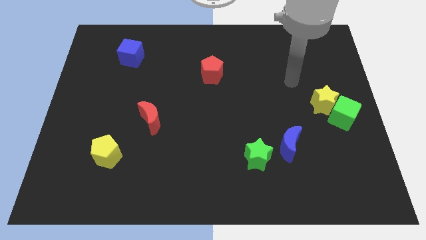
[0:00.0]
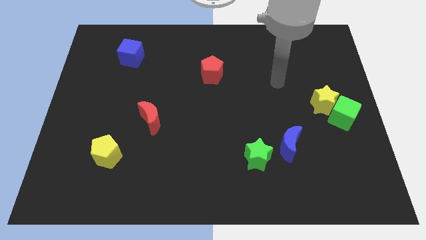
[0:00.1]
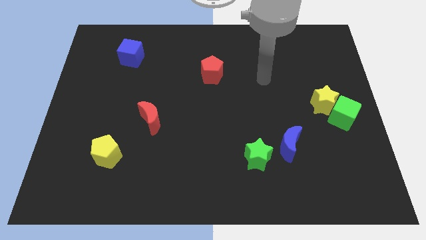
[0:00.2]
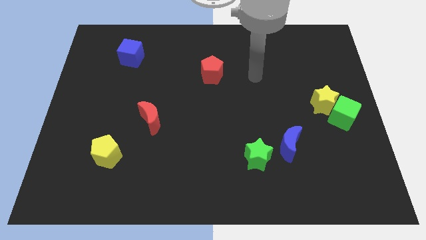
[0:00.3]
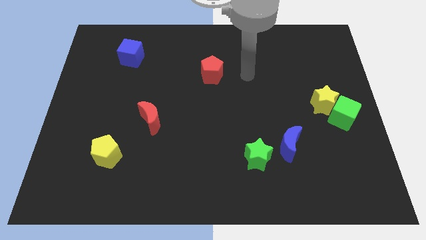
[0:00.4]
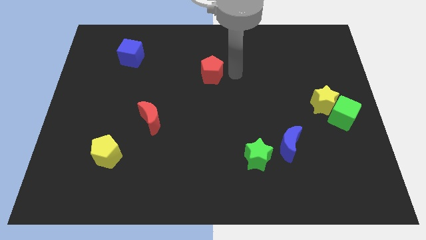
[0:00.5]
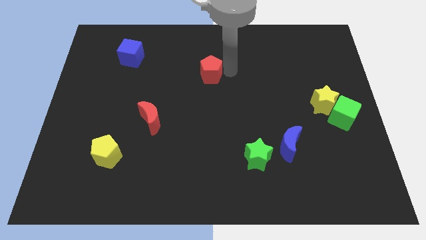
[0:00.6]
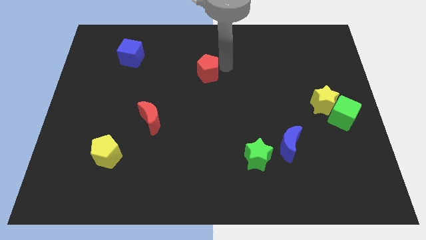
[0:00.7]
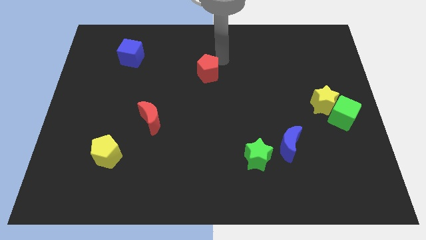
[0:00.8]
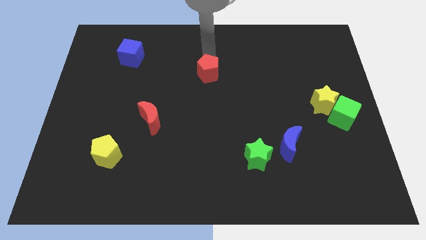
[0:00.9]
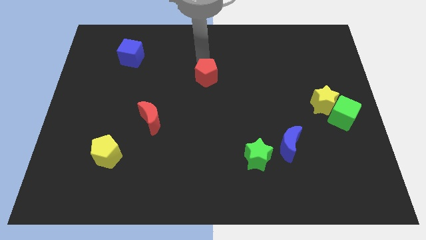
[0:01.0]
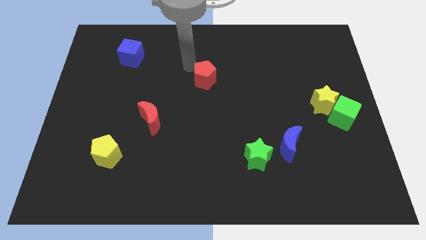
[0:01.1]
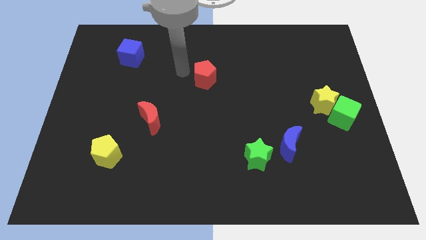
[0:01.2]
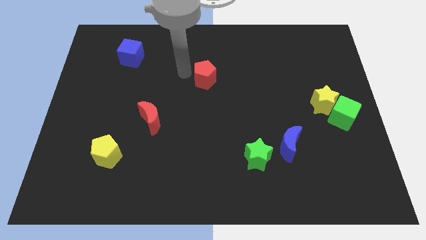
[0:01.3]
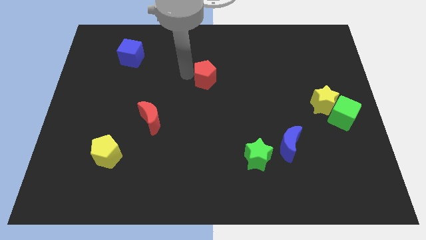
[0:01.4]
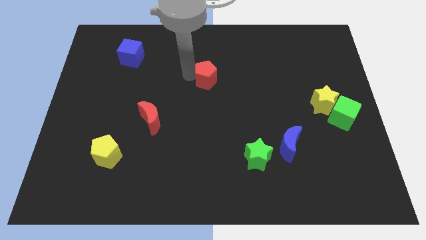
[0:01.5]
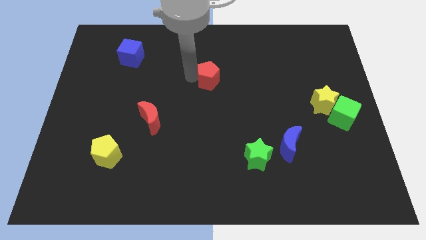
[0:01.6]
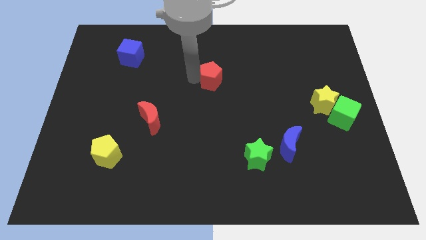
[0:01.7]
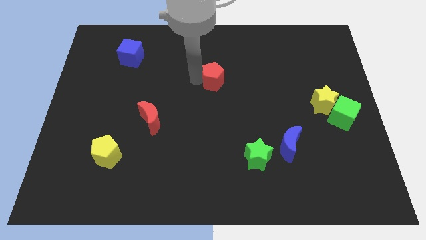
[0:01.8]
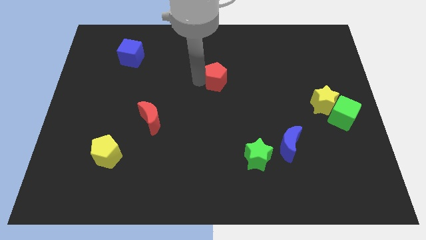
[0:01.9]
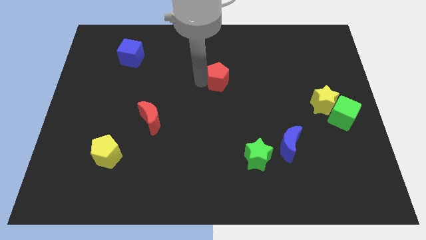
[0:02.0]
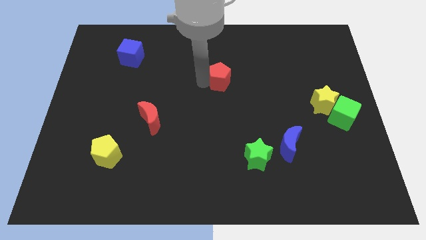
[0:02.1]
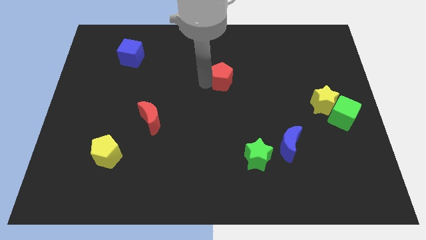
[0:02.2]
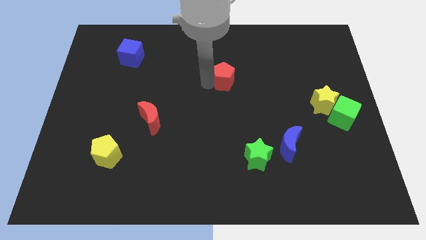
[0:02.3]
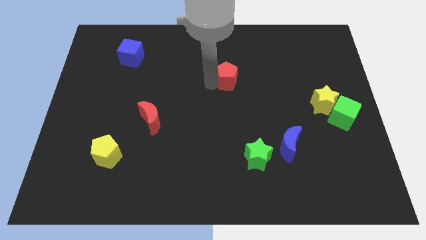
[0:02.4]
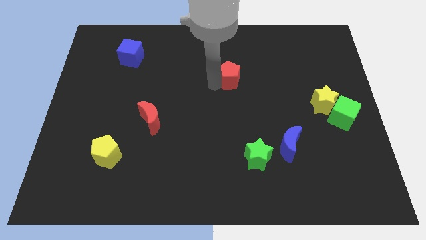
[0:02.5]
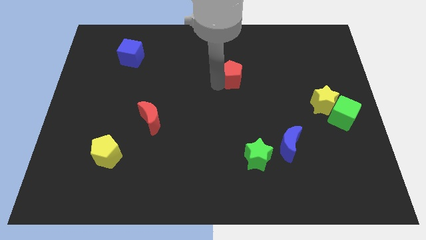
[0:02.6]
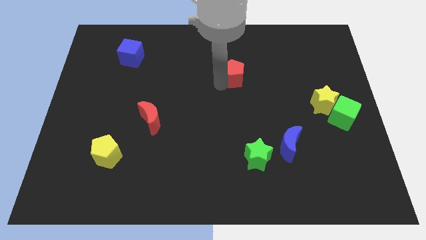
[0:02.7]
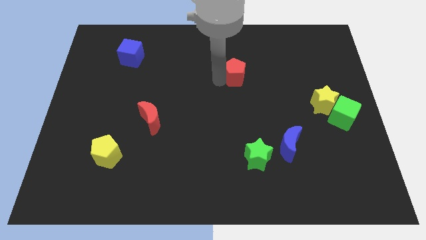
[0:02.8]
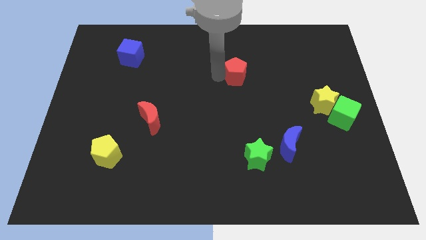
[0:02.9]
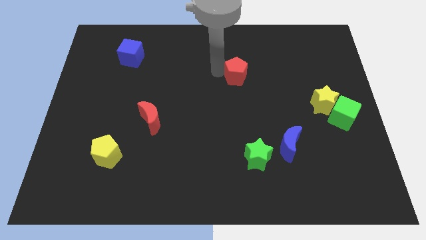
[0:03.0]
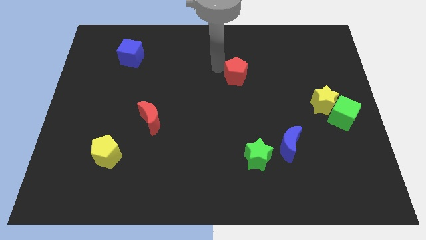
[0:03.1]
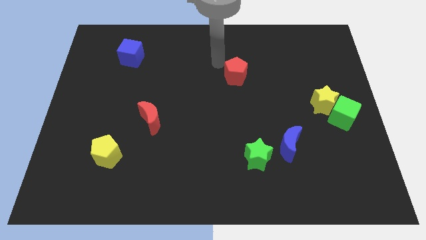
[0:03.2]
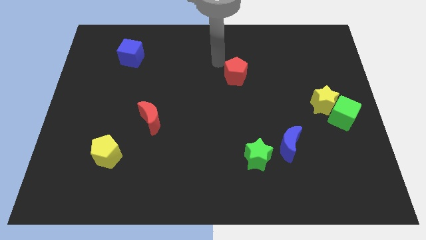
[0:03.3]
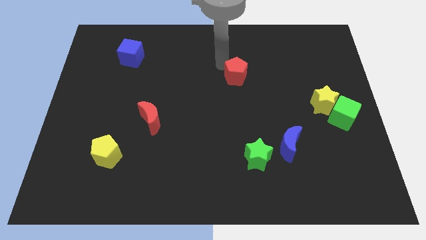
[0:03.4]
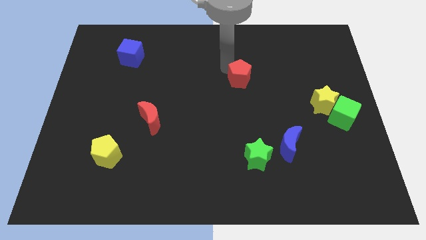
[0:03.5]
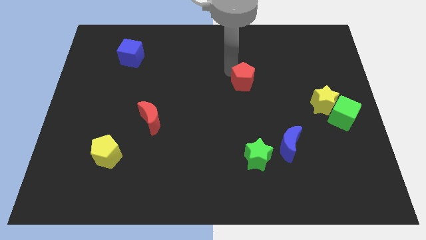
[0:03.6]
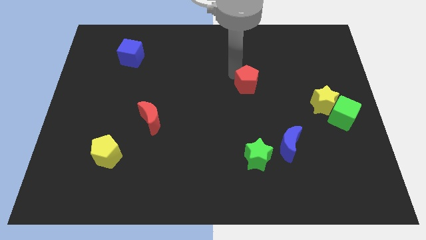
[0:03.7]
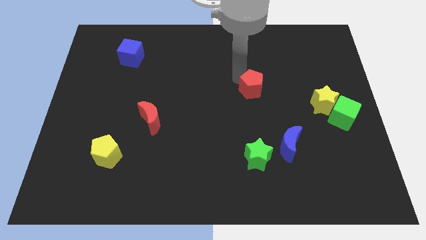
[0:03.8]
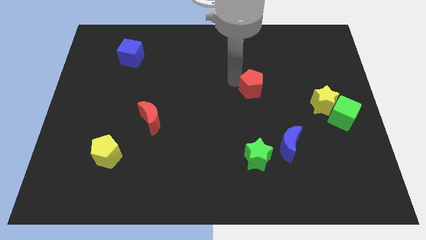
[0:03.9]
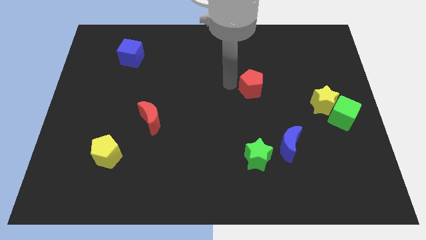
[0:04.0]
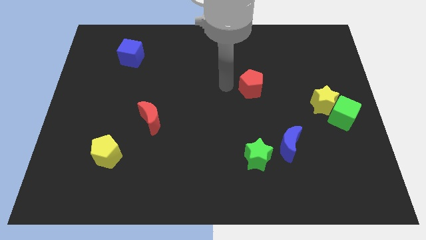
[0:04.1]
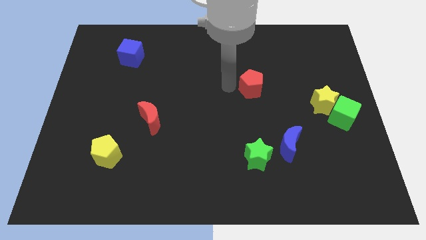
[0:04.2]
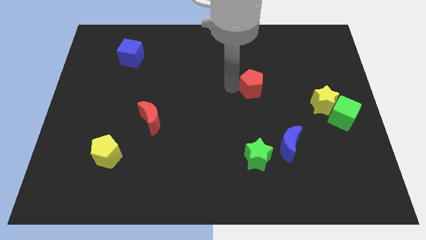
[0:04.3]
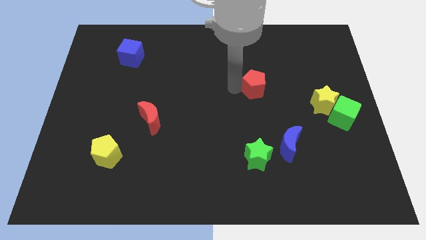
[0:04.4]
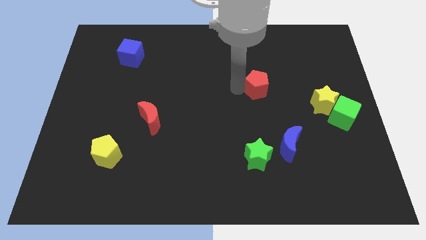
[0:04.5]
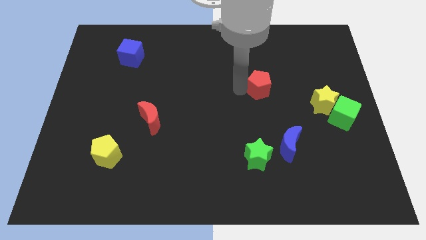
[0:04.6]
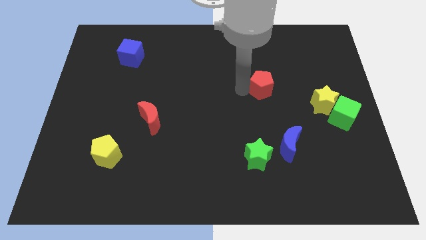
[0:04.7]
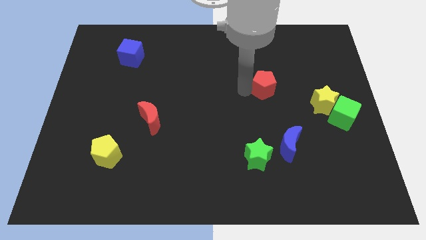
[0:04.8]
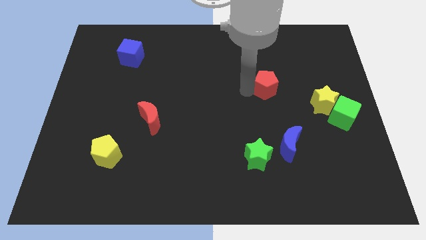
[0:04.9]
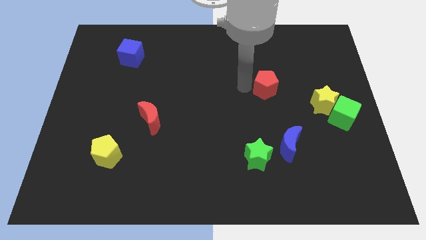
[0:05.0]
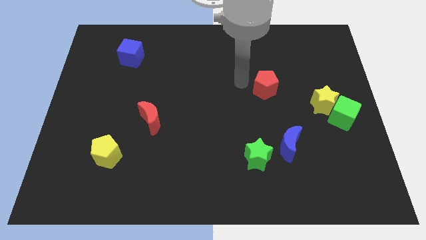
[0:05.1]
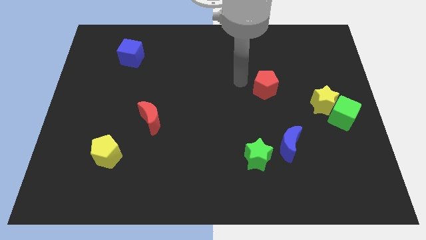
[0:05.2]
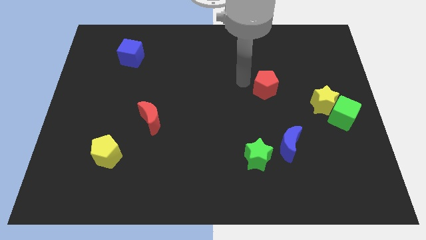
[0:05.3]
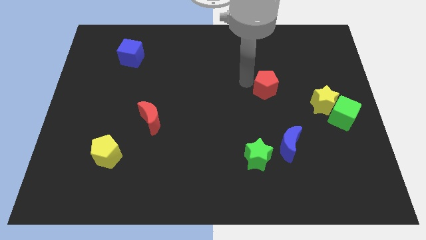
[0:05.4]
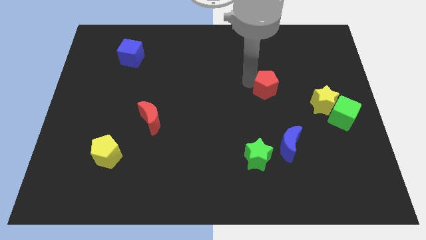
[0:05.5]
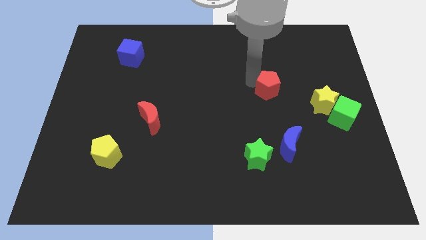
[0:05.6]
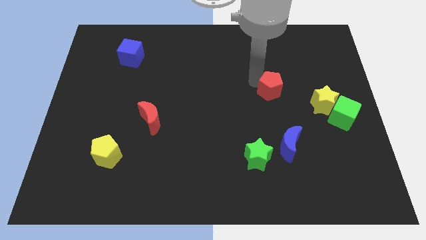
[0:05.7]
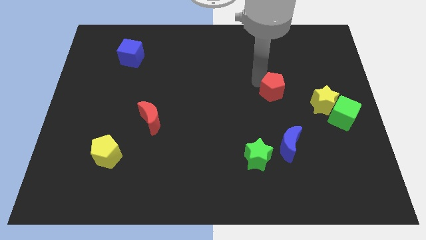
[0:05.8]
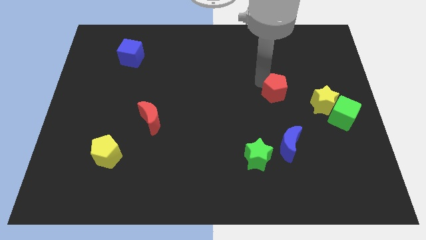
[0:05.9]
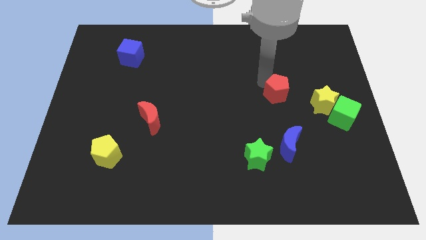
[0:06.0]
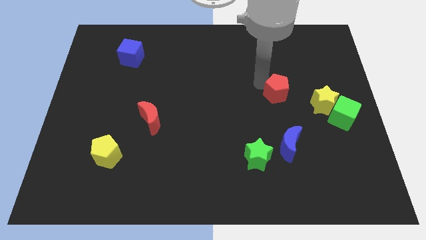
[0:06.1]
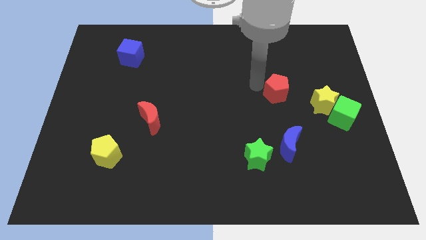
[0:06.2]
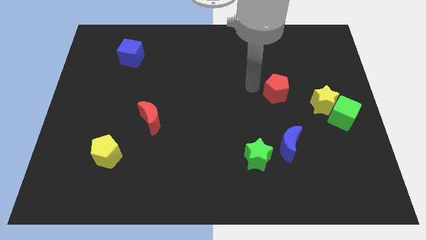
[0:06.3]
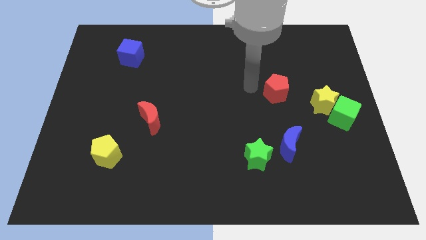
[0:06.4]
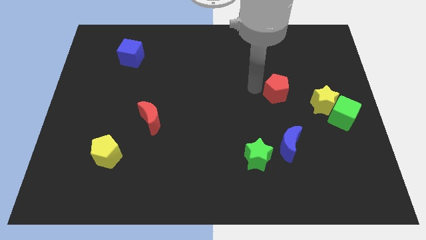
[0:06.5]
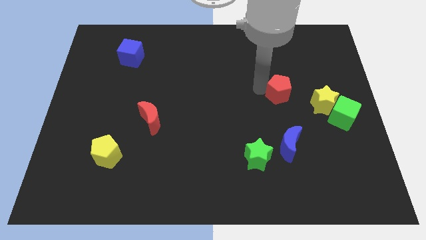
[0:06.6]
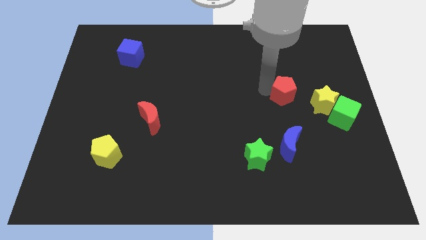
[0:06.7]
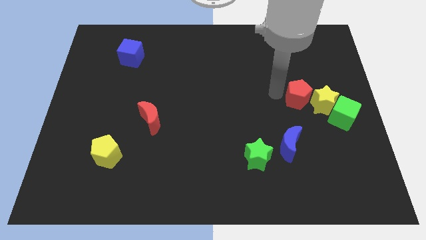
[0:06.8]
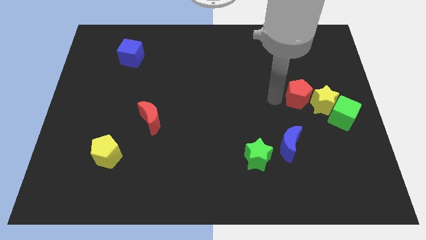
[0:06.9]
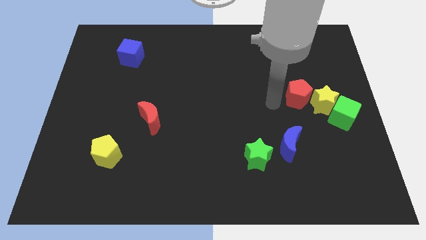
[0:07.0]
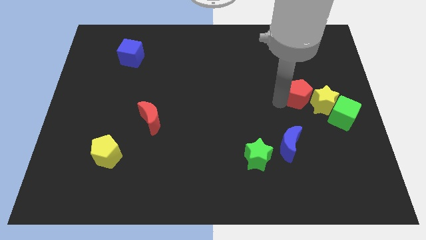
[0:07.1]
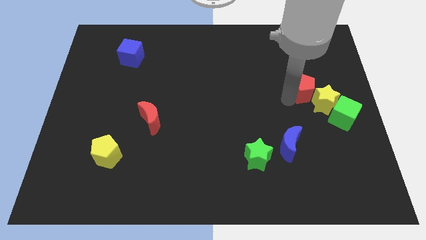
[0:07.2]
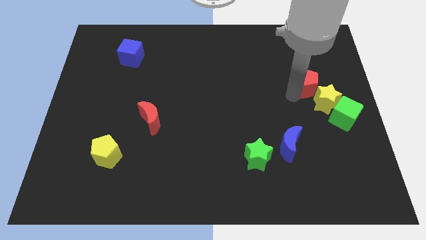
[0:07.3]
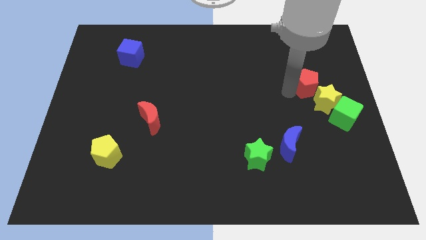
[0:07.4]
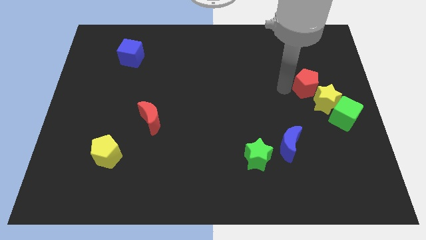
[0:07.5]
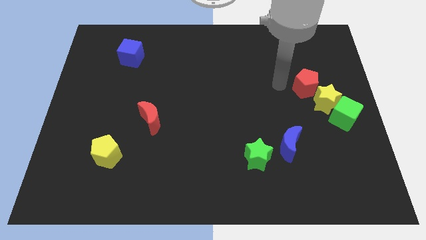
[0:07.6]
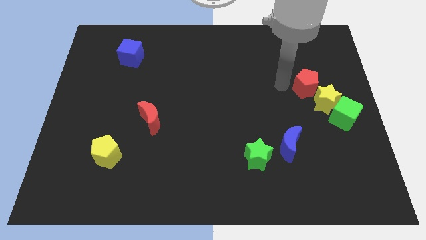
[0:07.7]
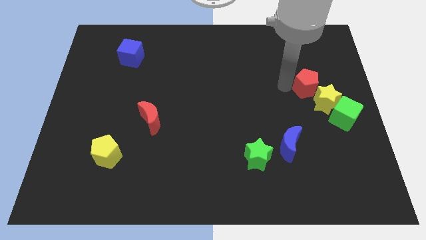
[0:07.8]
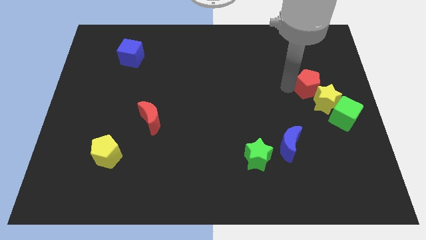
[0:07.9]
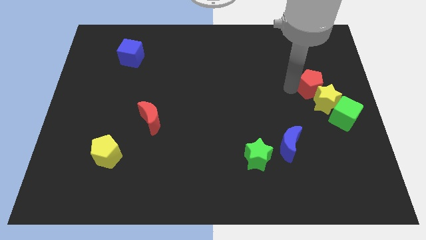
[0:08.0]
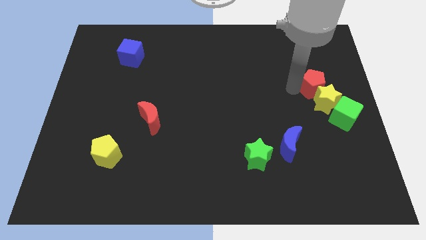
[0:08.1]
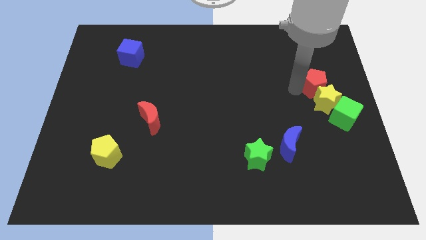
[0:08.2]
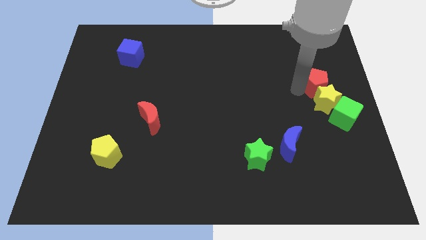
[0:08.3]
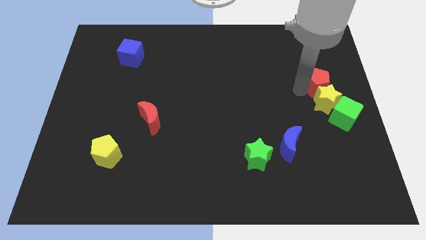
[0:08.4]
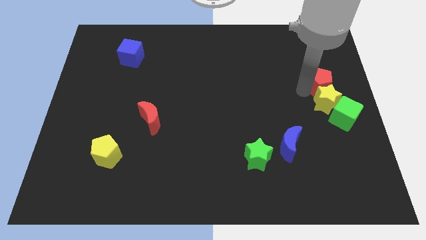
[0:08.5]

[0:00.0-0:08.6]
push the red pentagon to the right side of the board
